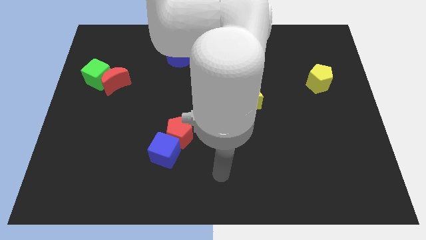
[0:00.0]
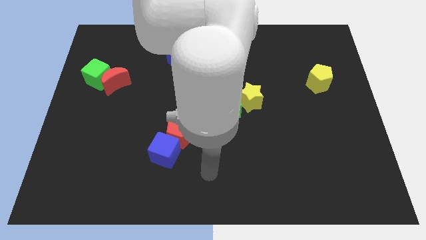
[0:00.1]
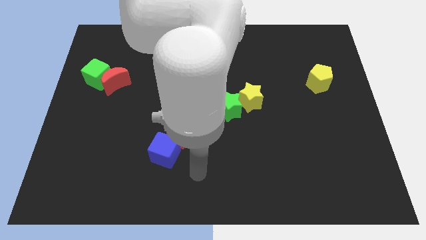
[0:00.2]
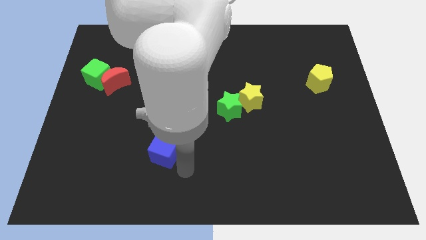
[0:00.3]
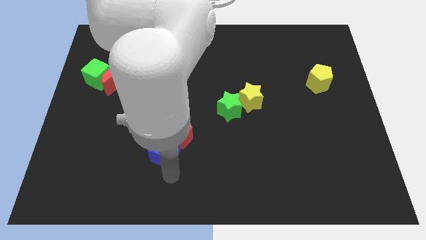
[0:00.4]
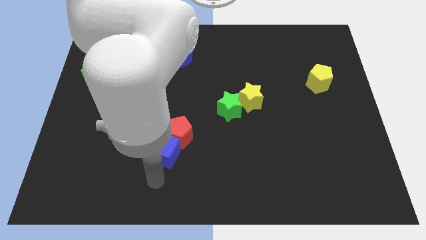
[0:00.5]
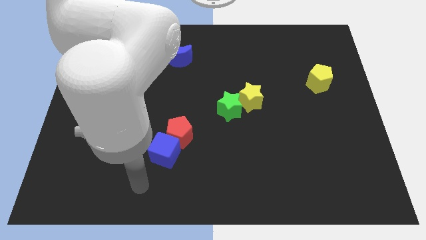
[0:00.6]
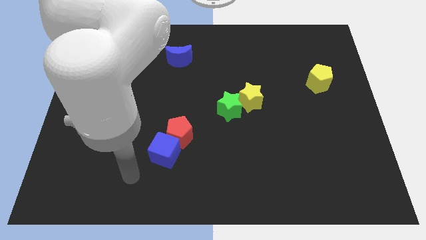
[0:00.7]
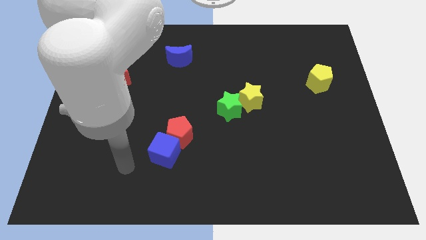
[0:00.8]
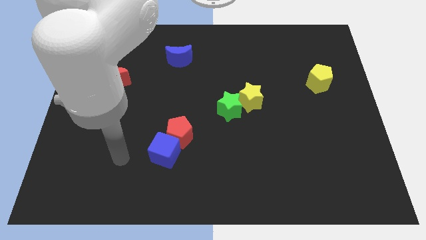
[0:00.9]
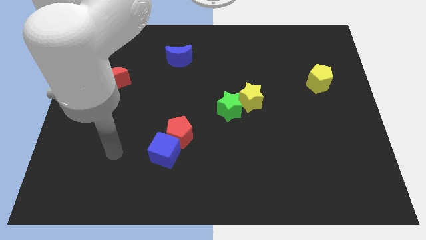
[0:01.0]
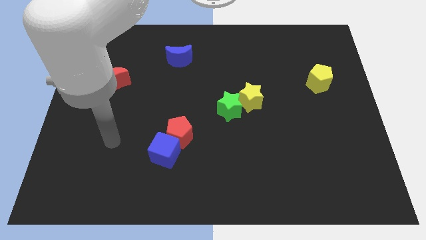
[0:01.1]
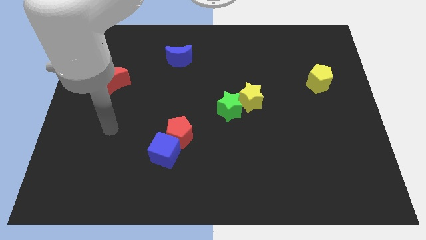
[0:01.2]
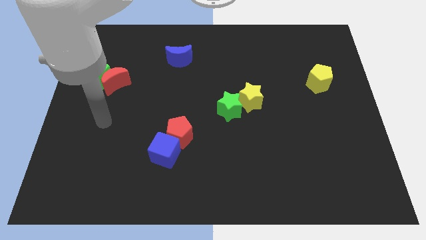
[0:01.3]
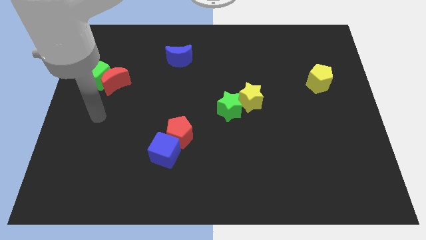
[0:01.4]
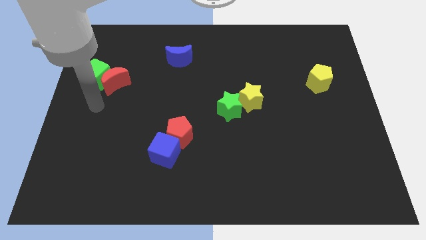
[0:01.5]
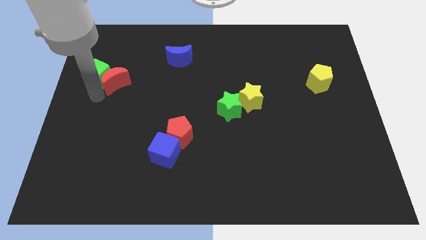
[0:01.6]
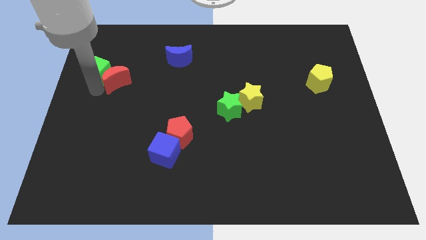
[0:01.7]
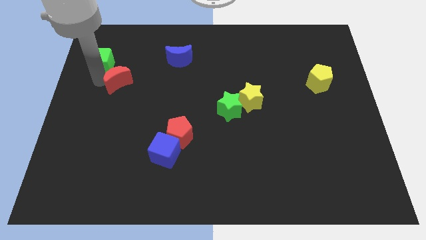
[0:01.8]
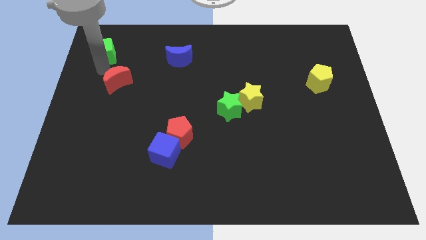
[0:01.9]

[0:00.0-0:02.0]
separate the red moon from the green cube

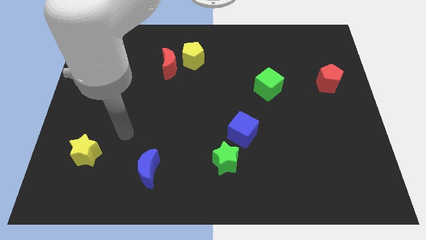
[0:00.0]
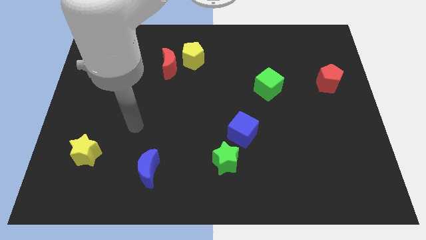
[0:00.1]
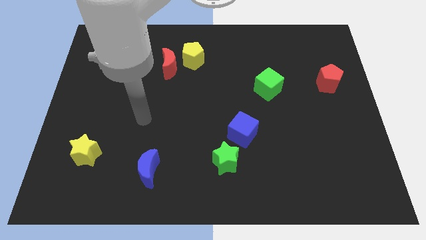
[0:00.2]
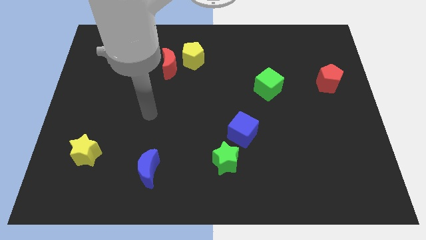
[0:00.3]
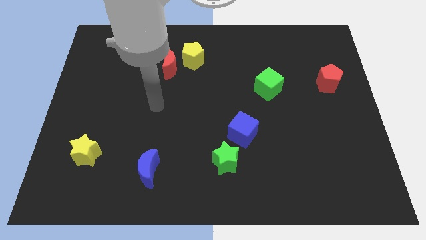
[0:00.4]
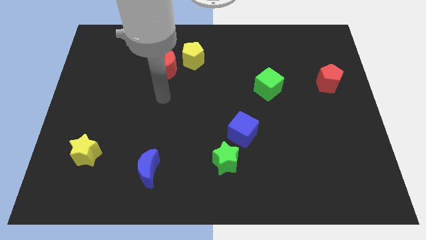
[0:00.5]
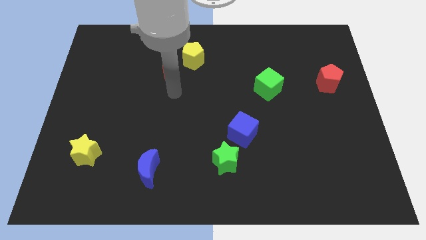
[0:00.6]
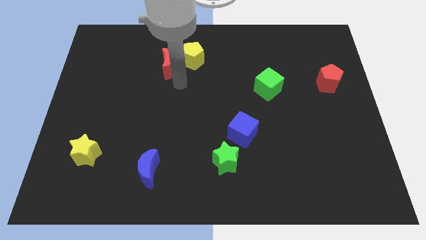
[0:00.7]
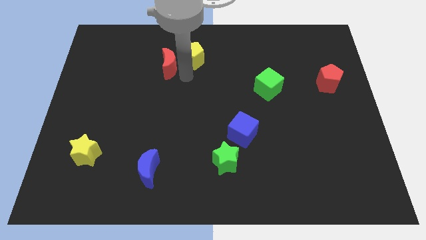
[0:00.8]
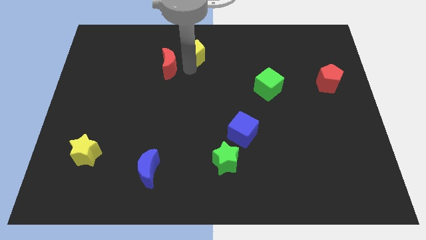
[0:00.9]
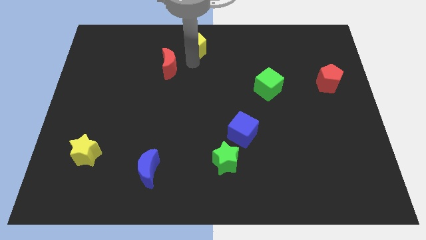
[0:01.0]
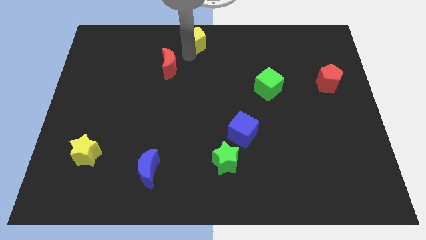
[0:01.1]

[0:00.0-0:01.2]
move the red moon away from the yellow pentagon

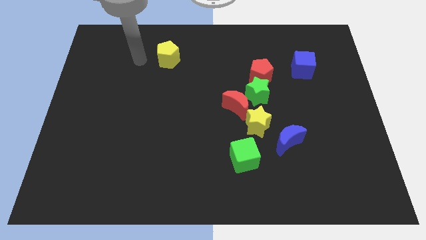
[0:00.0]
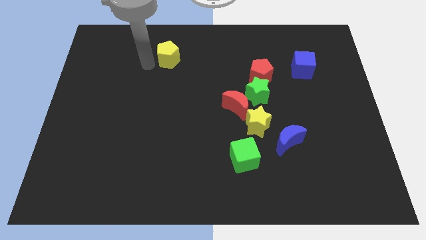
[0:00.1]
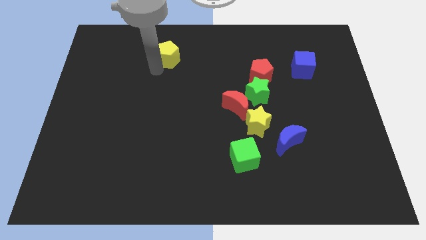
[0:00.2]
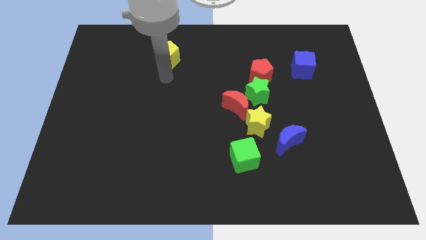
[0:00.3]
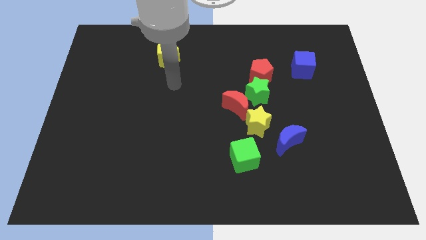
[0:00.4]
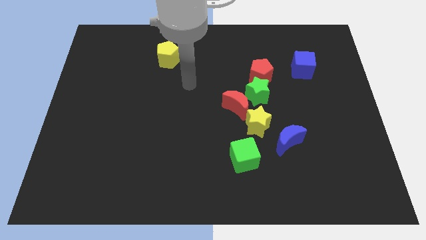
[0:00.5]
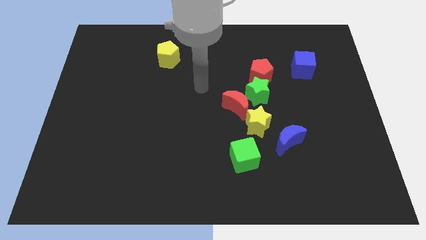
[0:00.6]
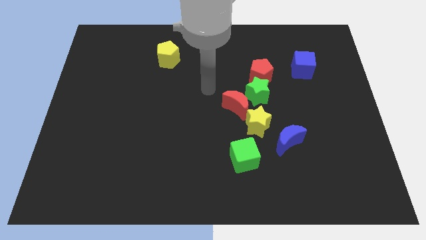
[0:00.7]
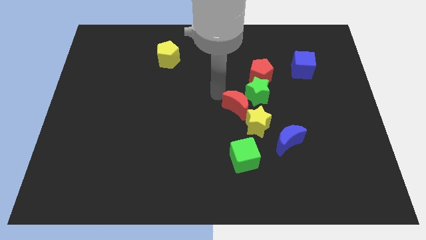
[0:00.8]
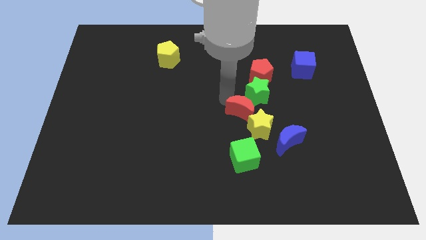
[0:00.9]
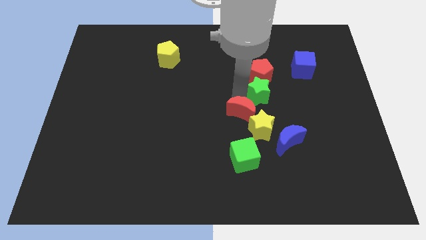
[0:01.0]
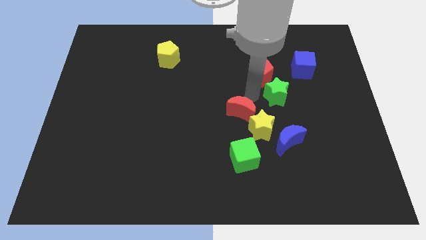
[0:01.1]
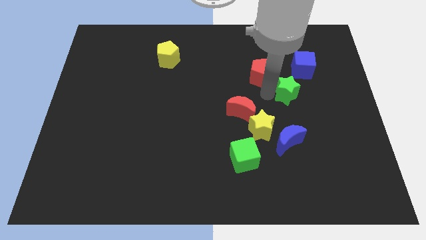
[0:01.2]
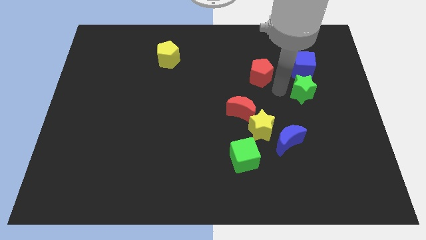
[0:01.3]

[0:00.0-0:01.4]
move the red pentagon away from the green star

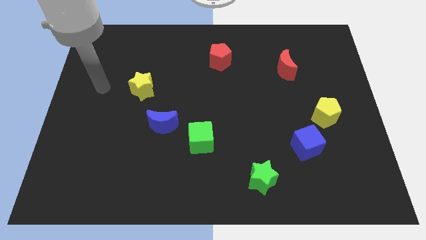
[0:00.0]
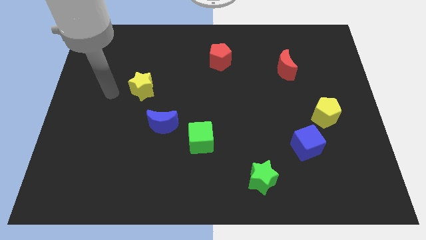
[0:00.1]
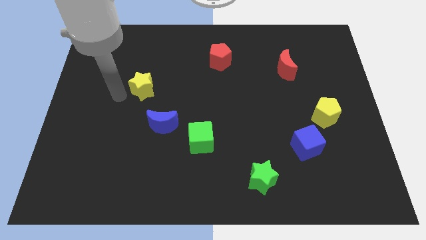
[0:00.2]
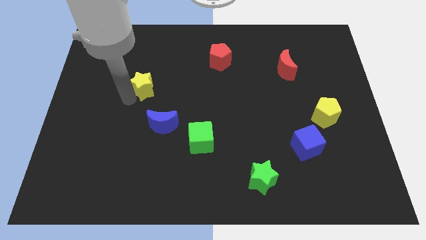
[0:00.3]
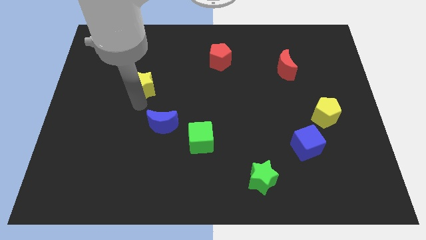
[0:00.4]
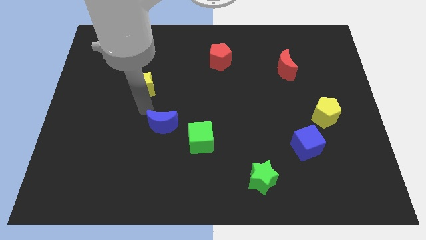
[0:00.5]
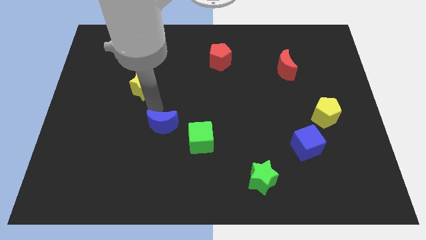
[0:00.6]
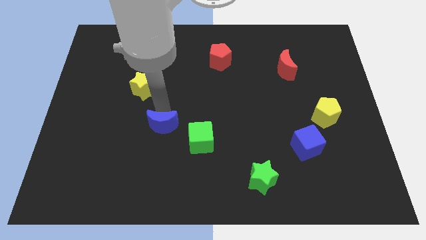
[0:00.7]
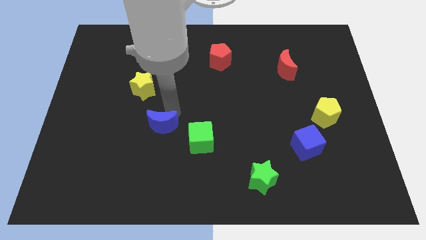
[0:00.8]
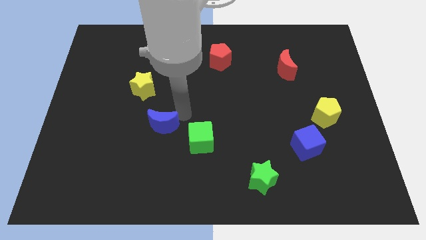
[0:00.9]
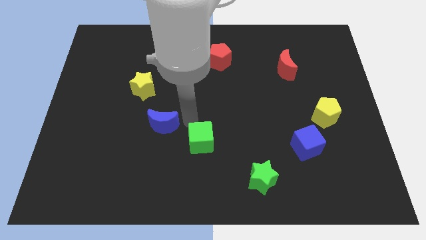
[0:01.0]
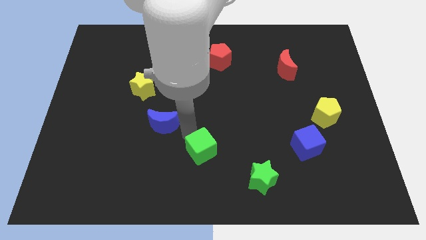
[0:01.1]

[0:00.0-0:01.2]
pull the blue moon apart from the green cube

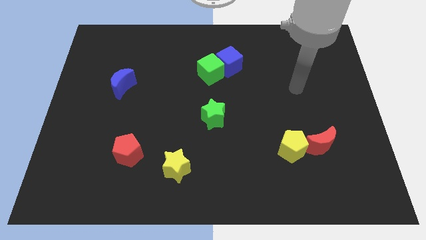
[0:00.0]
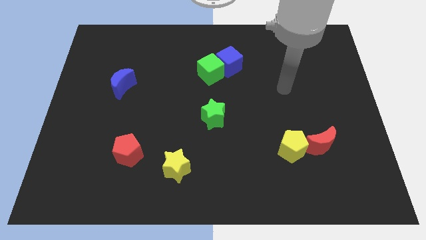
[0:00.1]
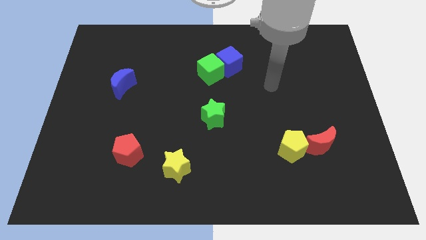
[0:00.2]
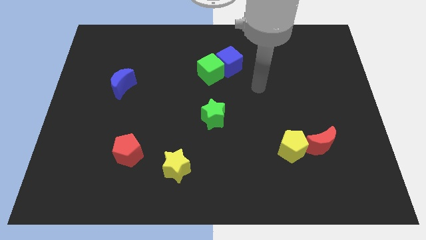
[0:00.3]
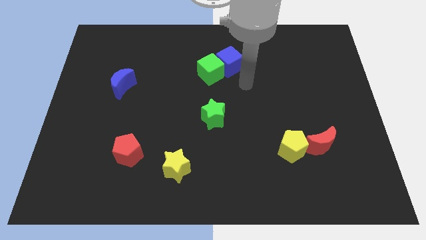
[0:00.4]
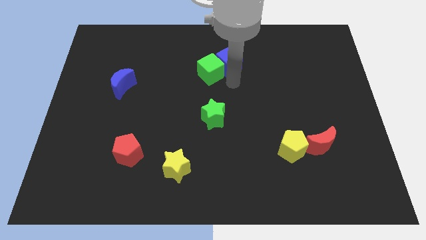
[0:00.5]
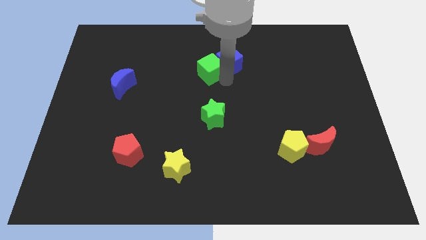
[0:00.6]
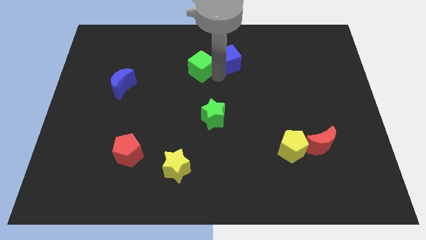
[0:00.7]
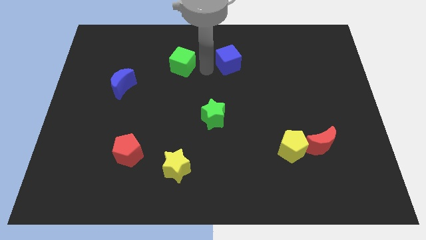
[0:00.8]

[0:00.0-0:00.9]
pull the blue cube apart from the green cube

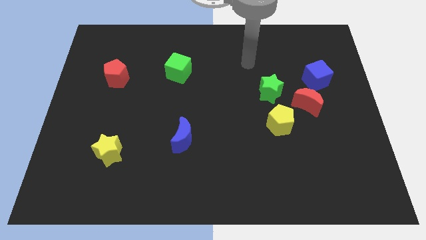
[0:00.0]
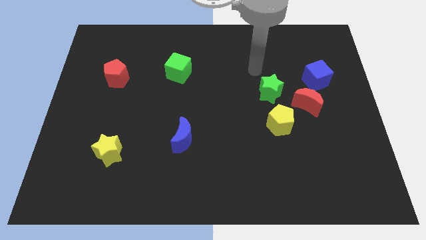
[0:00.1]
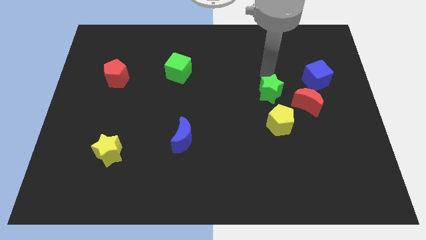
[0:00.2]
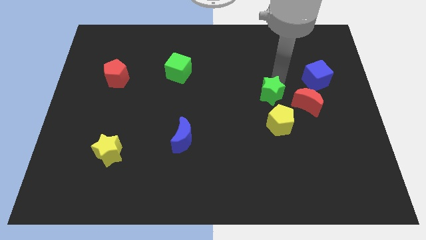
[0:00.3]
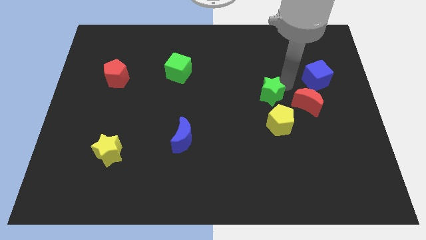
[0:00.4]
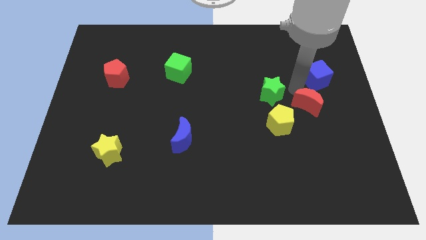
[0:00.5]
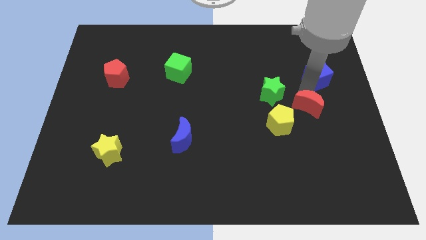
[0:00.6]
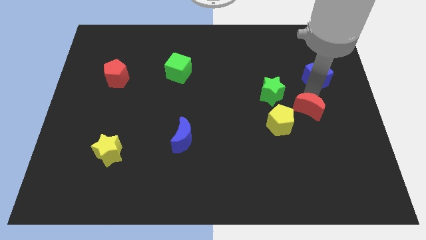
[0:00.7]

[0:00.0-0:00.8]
move the blue cube away from the red moon

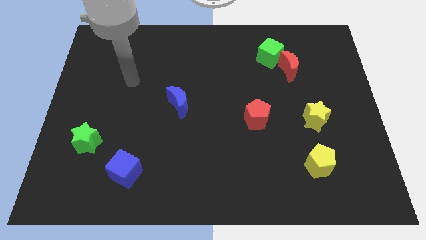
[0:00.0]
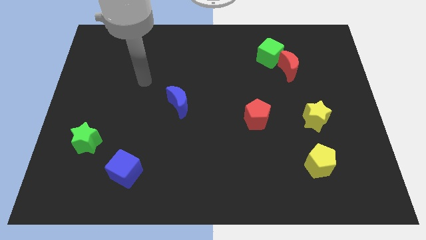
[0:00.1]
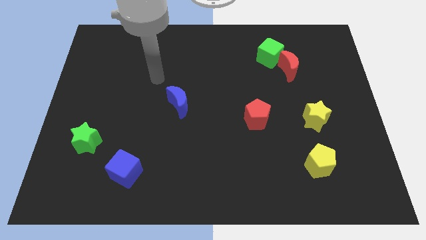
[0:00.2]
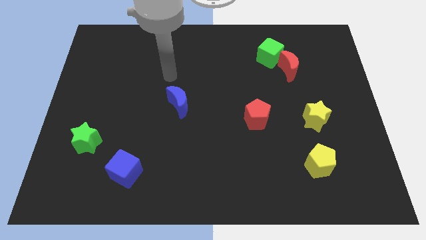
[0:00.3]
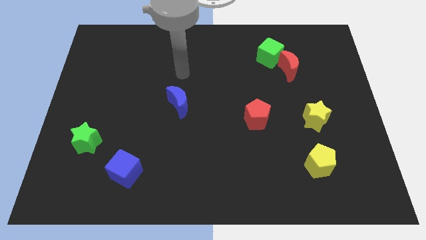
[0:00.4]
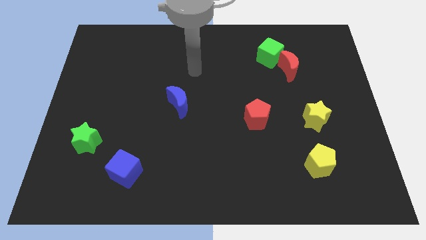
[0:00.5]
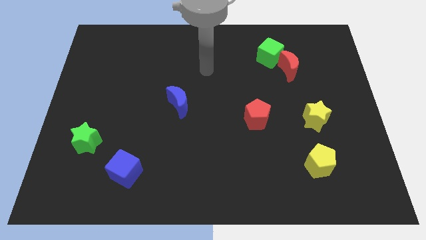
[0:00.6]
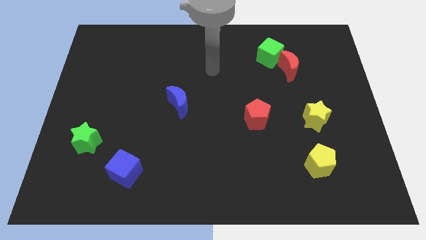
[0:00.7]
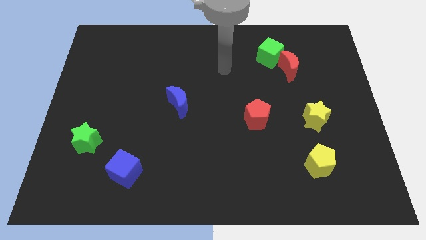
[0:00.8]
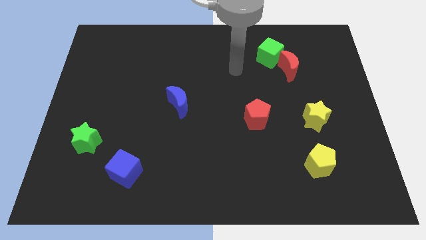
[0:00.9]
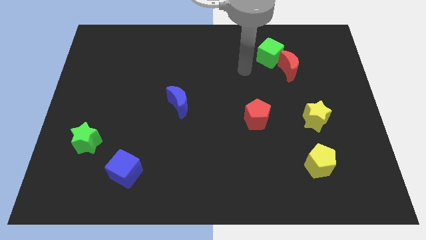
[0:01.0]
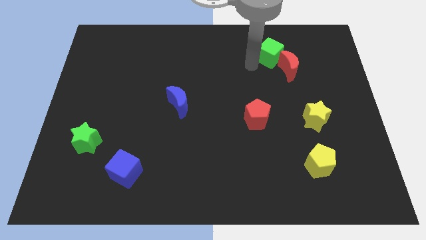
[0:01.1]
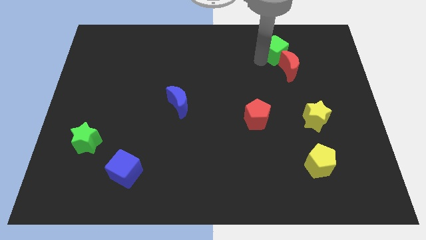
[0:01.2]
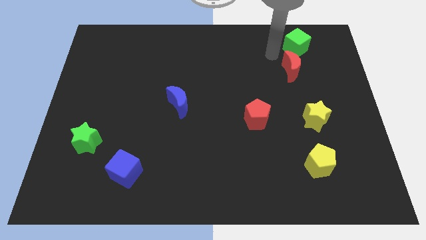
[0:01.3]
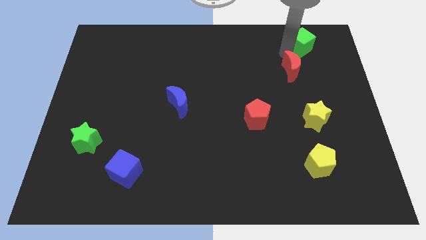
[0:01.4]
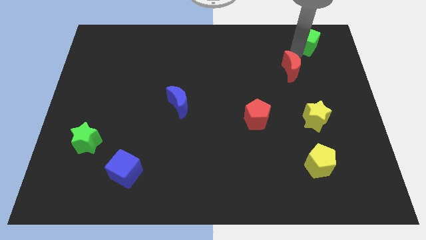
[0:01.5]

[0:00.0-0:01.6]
pull the red moon apart from the green cube

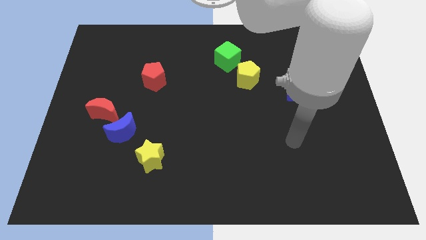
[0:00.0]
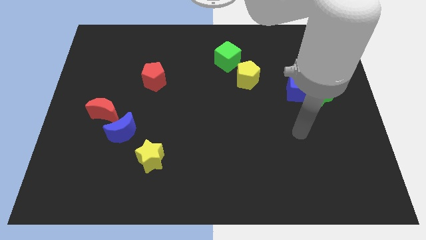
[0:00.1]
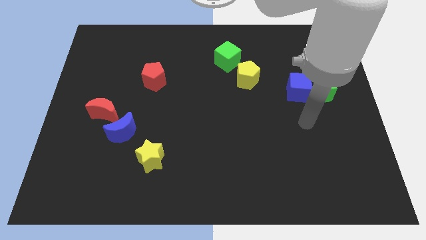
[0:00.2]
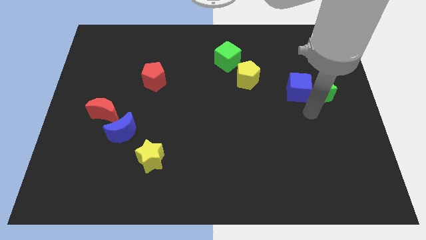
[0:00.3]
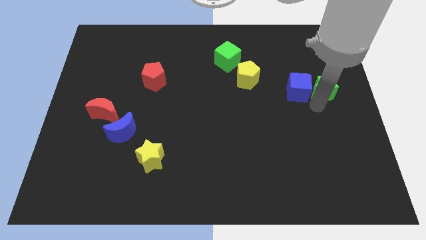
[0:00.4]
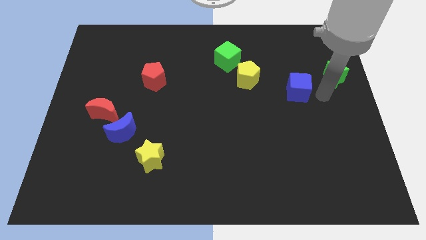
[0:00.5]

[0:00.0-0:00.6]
separate the blue cube from the green star
